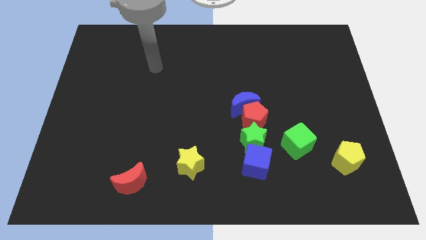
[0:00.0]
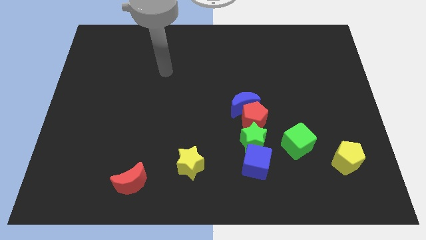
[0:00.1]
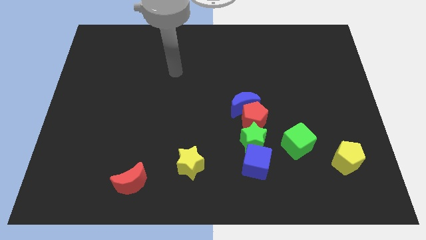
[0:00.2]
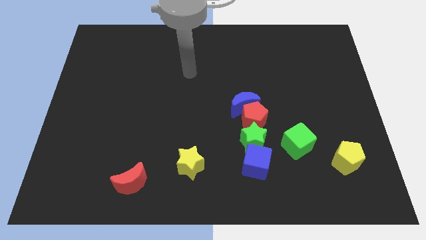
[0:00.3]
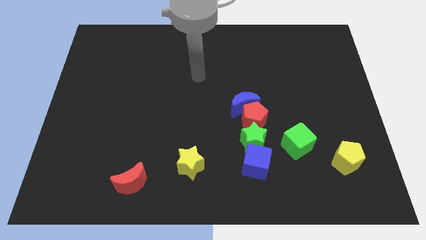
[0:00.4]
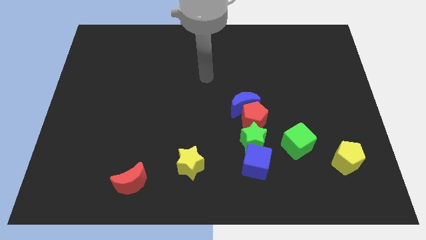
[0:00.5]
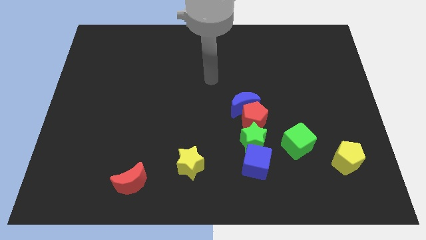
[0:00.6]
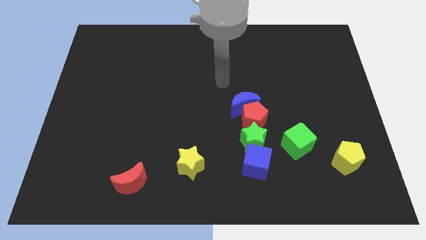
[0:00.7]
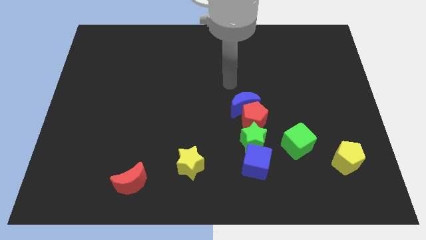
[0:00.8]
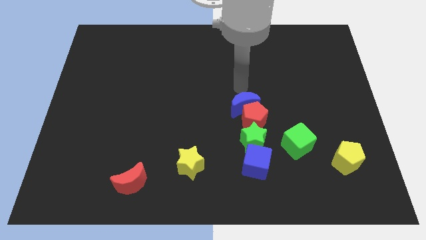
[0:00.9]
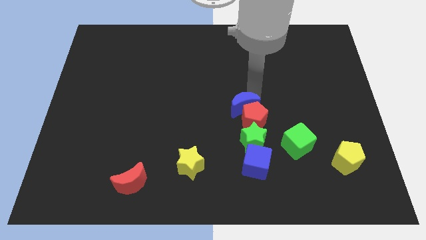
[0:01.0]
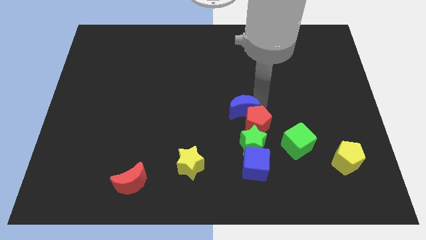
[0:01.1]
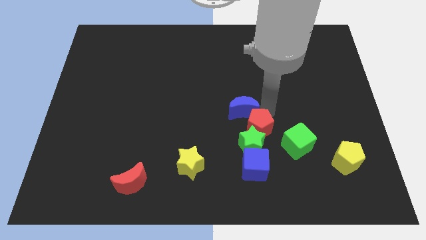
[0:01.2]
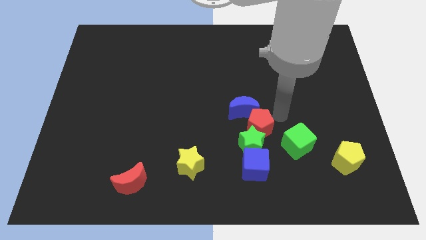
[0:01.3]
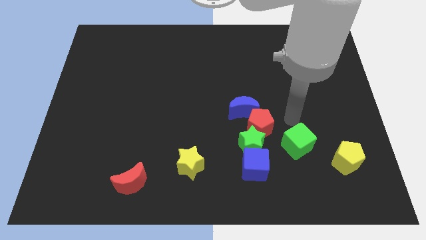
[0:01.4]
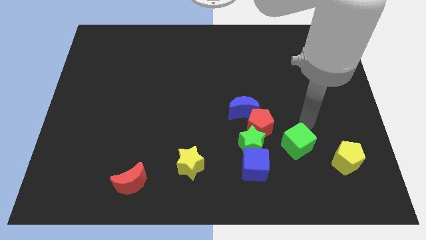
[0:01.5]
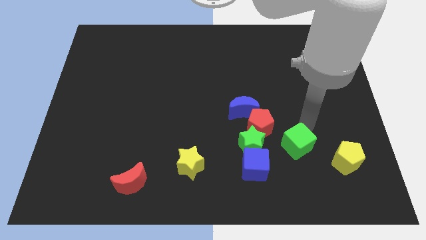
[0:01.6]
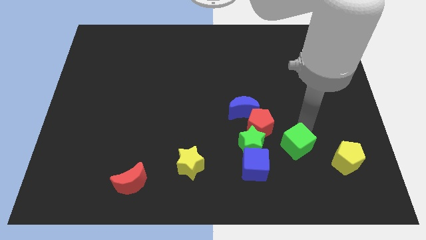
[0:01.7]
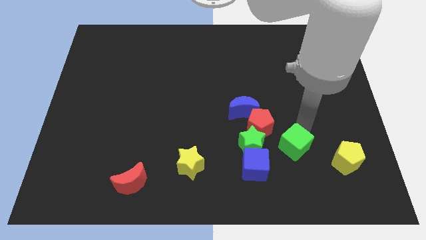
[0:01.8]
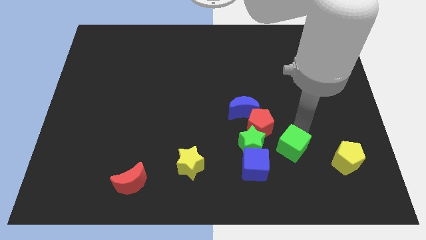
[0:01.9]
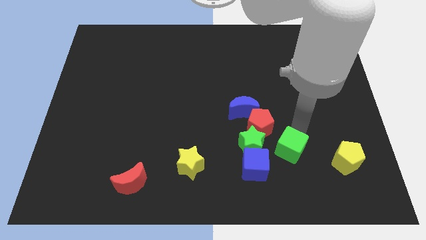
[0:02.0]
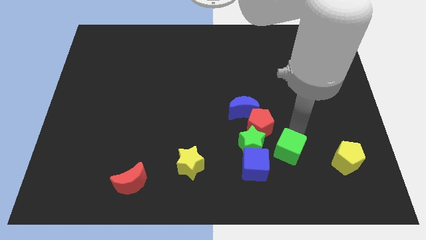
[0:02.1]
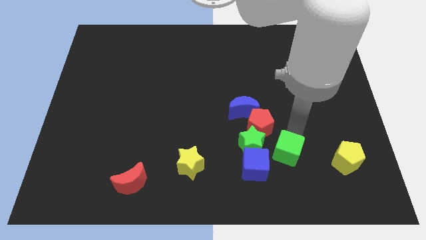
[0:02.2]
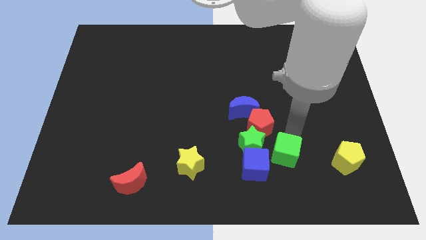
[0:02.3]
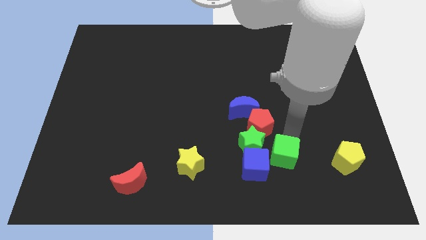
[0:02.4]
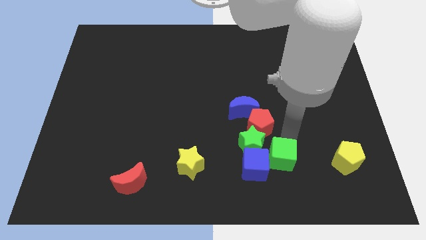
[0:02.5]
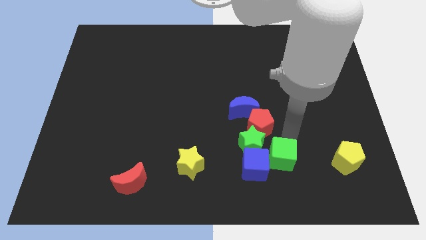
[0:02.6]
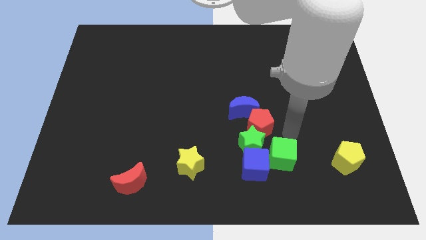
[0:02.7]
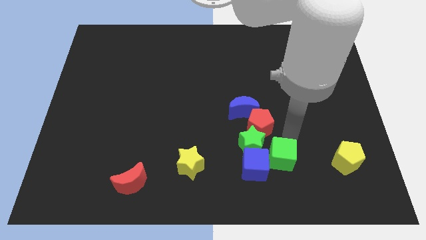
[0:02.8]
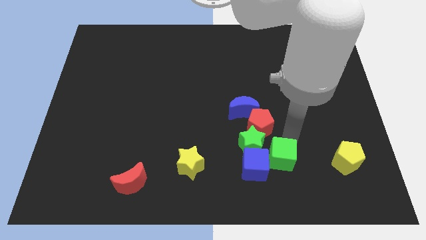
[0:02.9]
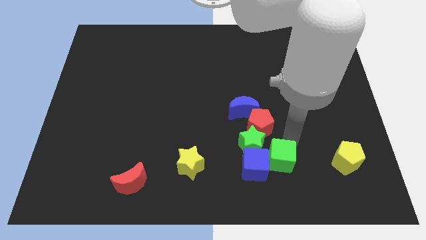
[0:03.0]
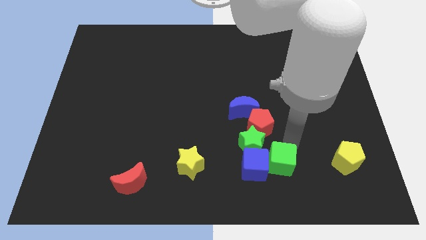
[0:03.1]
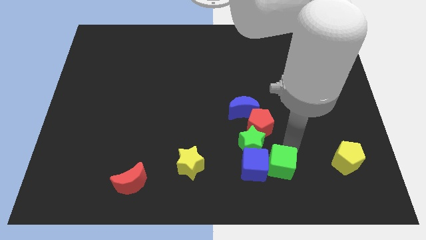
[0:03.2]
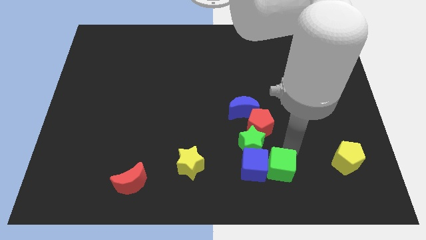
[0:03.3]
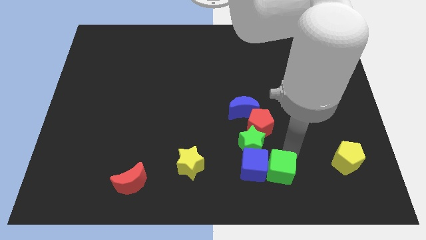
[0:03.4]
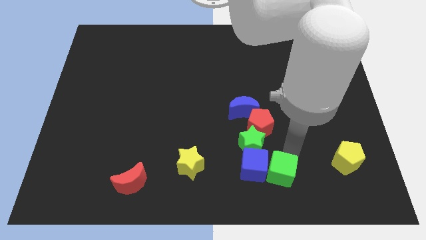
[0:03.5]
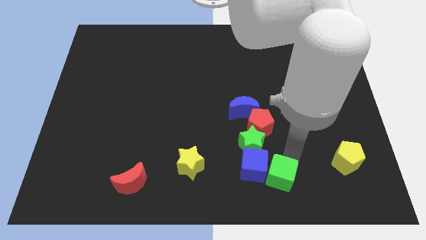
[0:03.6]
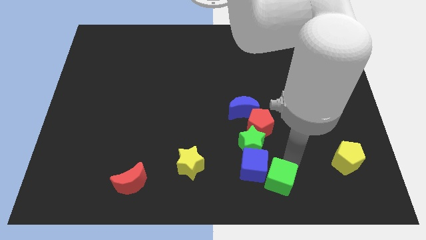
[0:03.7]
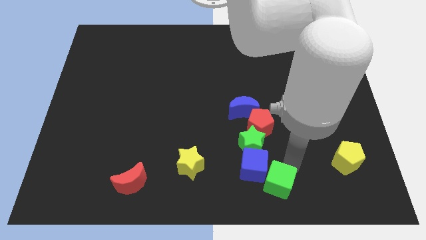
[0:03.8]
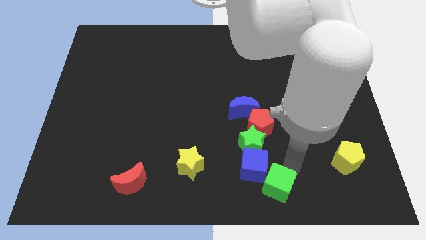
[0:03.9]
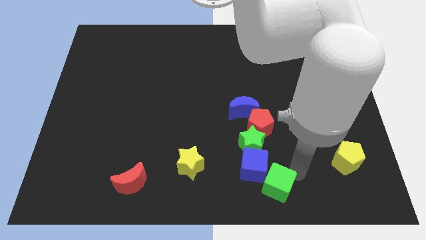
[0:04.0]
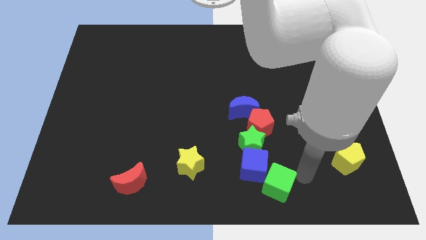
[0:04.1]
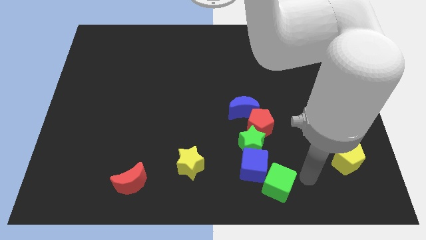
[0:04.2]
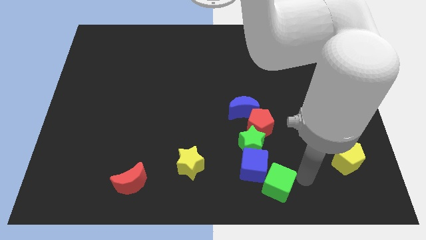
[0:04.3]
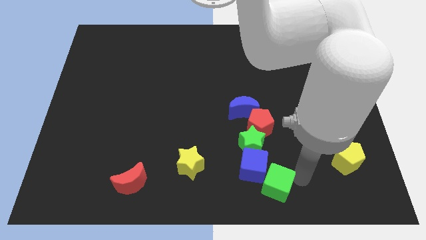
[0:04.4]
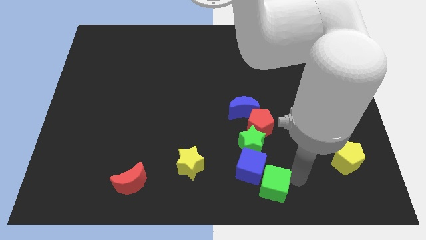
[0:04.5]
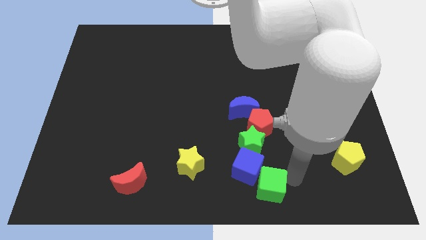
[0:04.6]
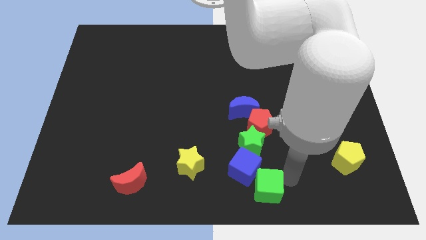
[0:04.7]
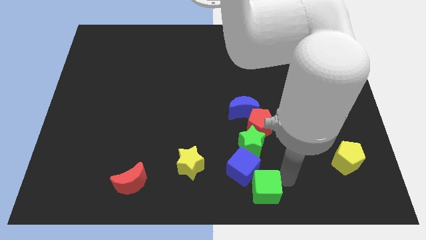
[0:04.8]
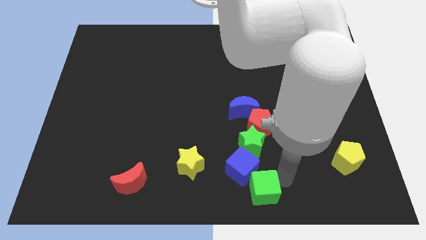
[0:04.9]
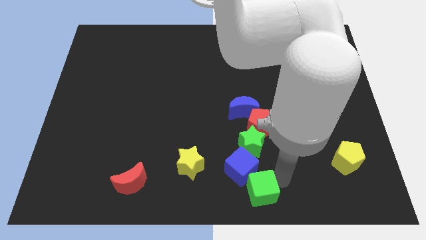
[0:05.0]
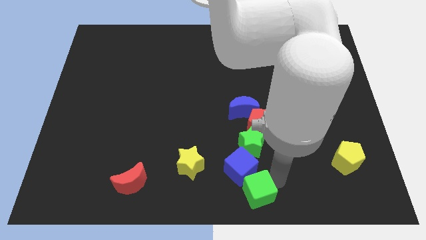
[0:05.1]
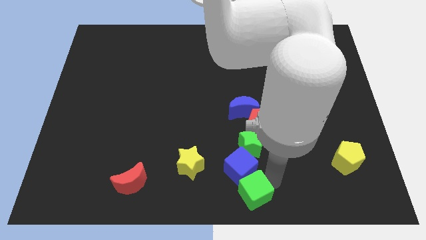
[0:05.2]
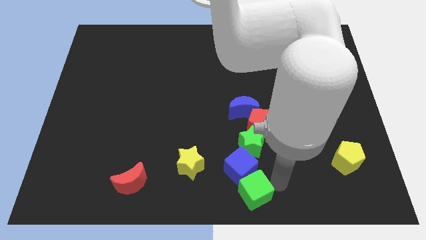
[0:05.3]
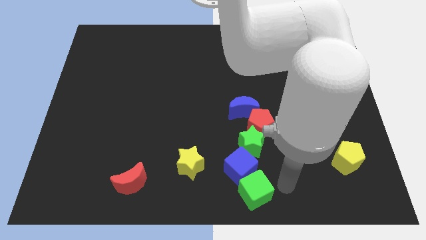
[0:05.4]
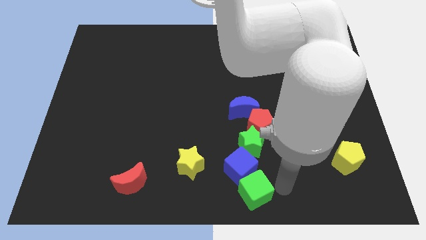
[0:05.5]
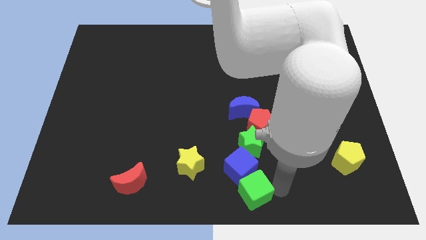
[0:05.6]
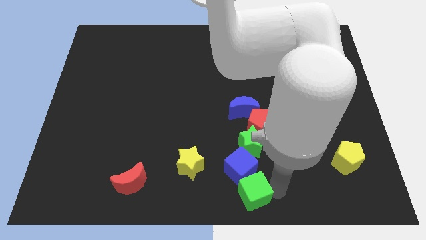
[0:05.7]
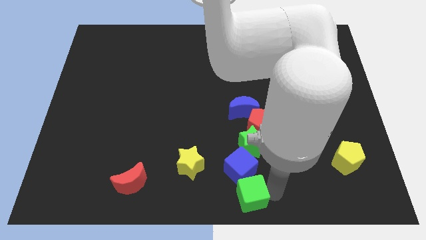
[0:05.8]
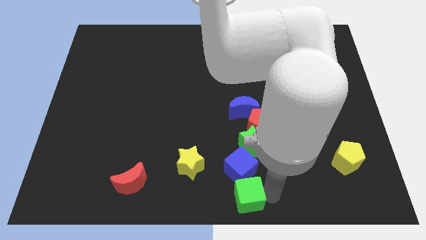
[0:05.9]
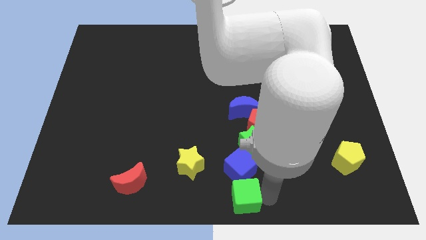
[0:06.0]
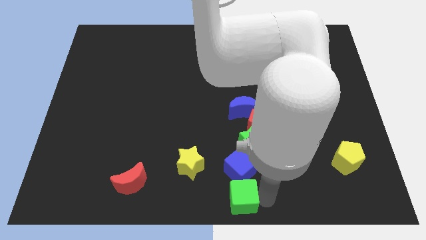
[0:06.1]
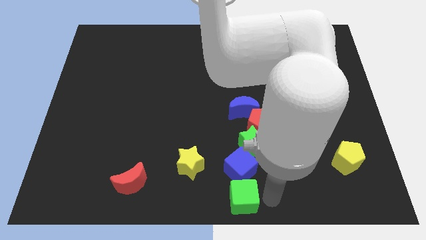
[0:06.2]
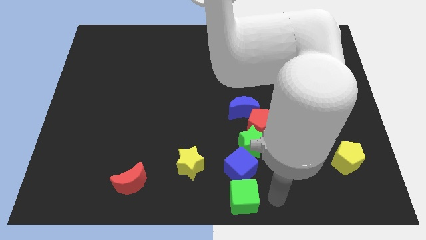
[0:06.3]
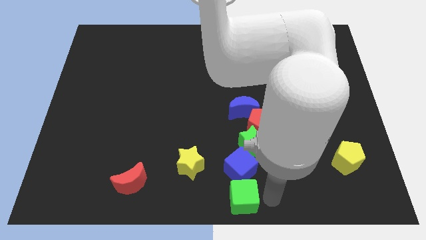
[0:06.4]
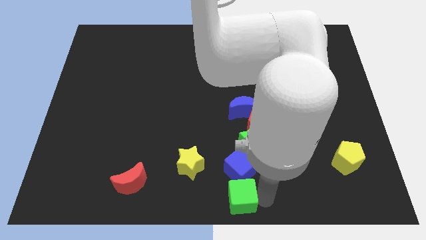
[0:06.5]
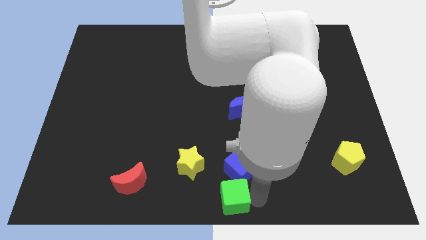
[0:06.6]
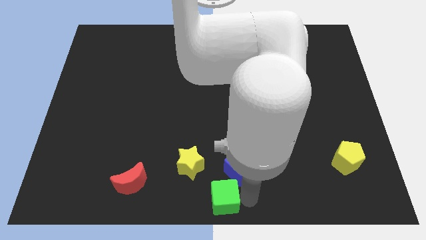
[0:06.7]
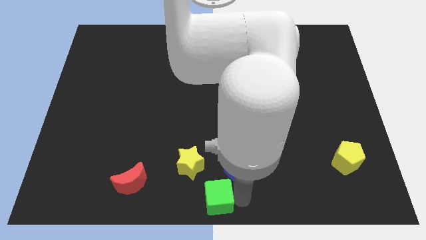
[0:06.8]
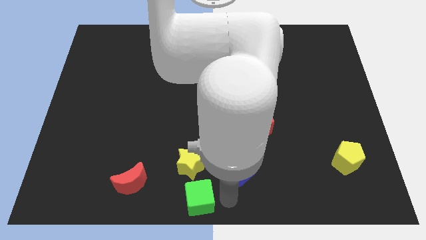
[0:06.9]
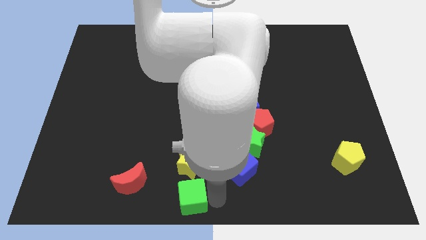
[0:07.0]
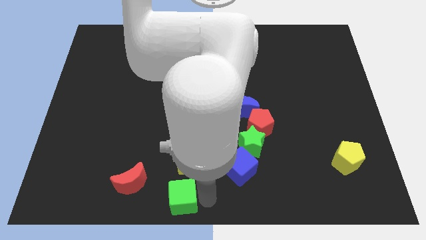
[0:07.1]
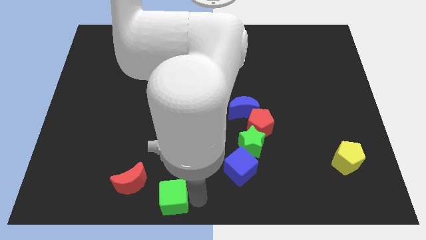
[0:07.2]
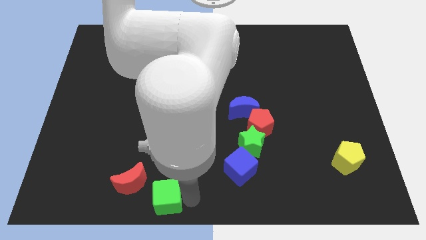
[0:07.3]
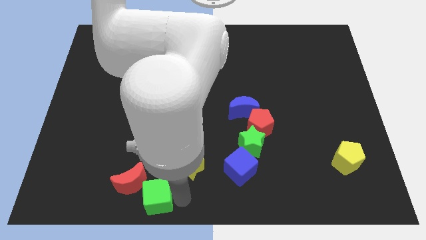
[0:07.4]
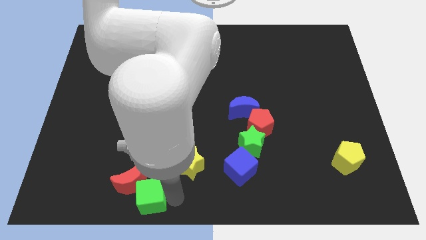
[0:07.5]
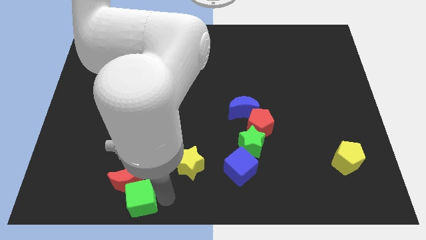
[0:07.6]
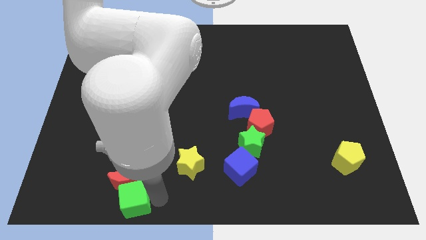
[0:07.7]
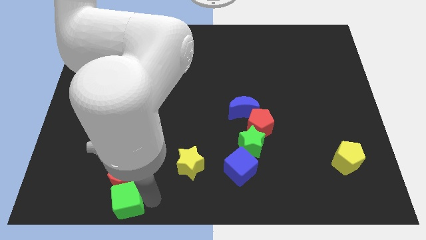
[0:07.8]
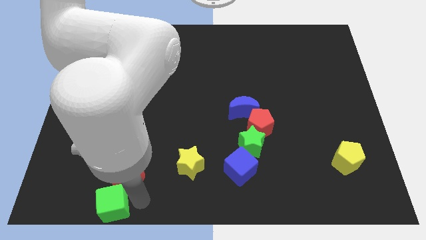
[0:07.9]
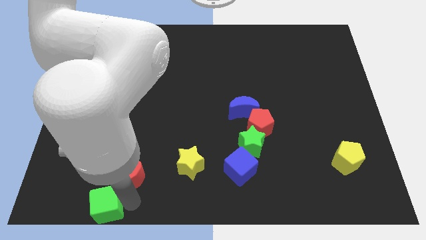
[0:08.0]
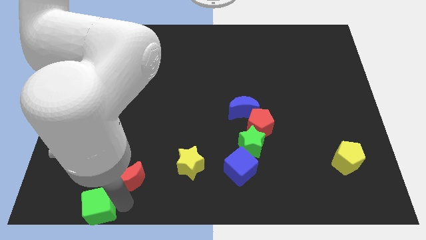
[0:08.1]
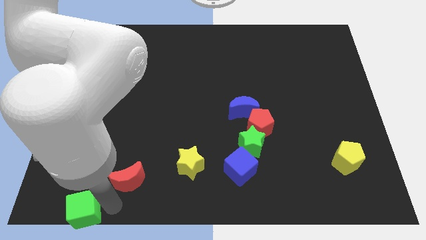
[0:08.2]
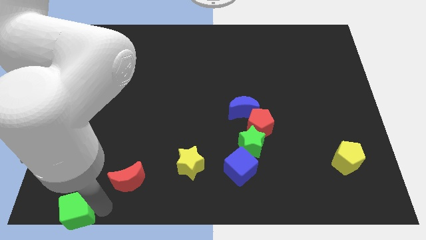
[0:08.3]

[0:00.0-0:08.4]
put the green cube to the bottom left of the board
